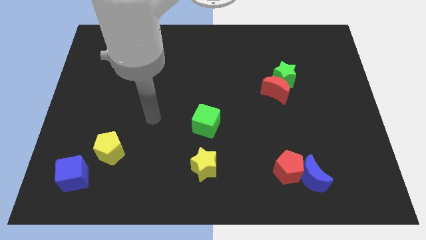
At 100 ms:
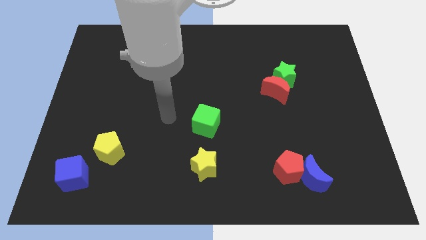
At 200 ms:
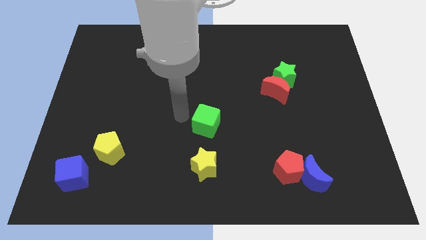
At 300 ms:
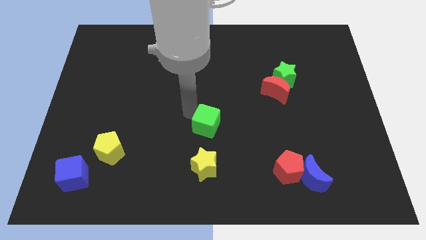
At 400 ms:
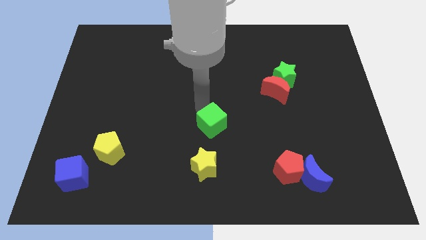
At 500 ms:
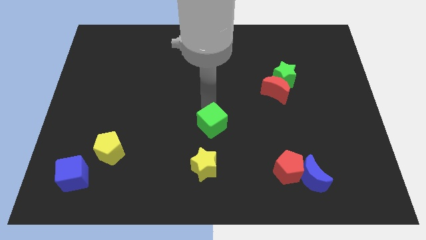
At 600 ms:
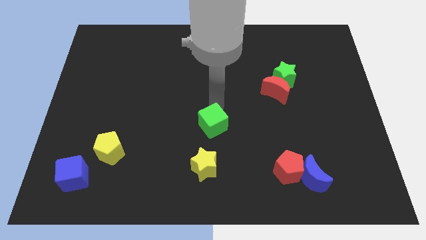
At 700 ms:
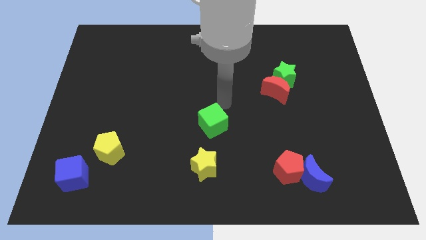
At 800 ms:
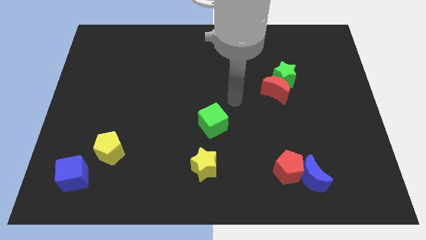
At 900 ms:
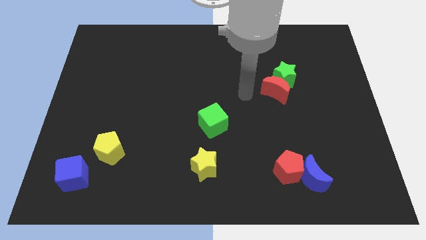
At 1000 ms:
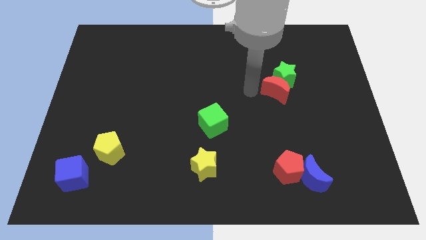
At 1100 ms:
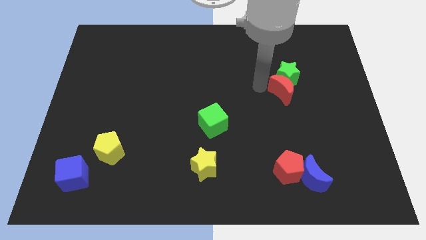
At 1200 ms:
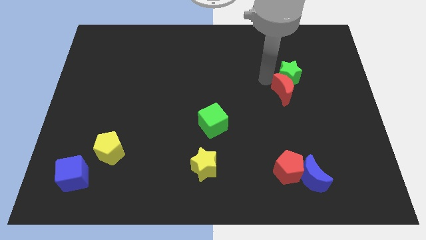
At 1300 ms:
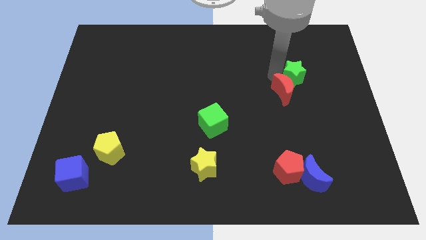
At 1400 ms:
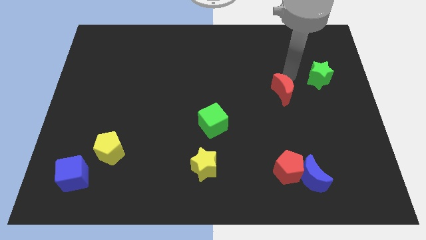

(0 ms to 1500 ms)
separate the red moon from the green star

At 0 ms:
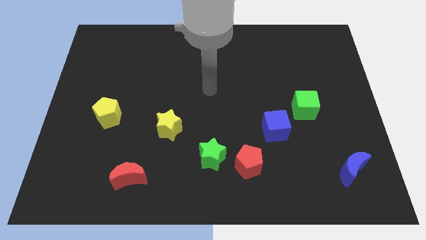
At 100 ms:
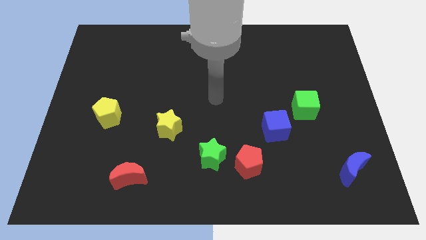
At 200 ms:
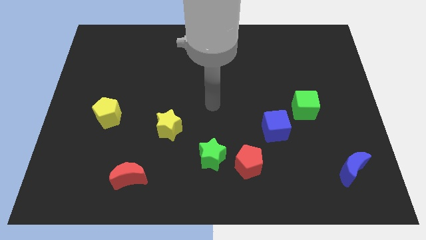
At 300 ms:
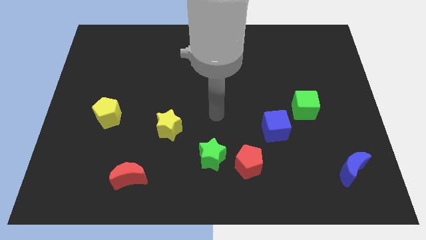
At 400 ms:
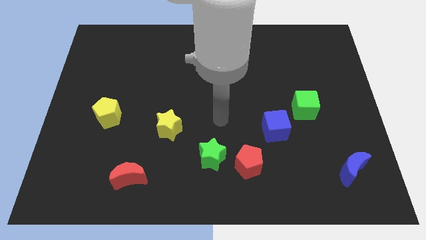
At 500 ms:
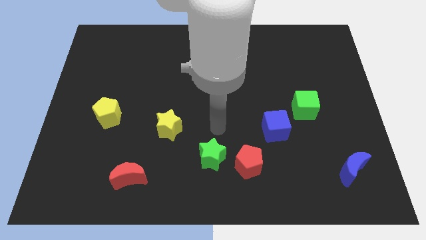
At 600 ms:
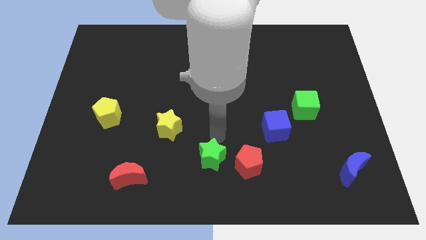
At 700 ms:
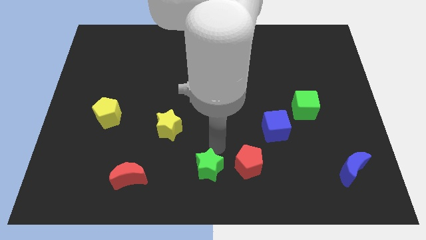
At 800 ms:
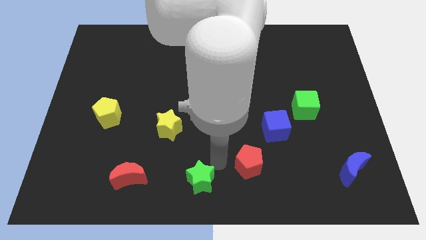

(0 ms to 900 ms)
move the red pentagon away from the green star

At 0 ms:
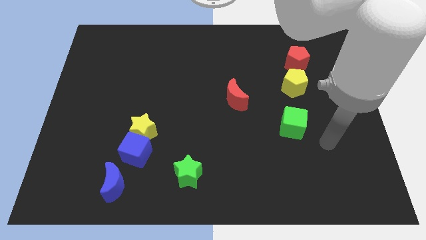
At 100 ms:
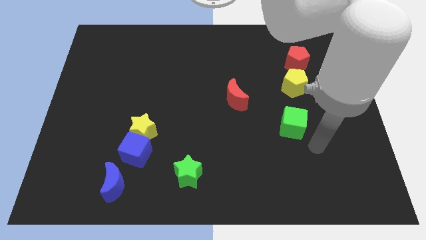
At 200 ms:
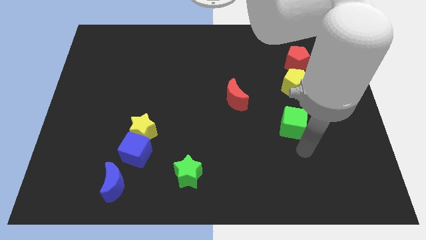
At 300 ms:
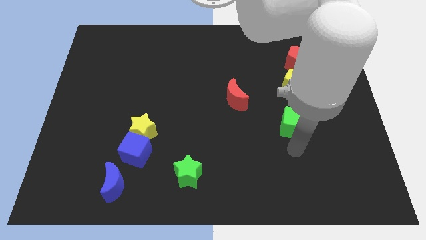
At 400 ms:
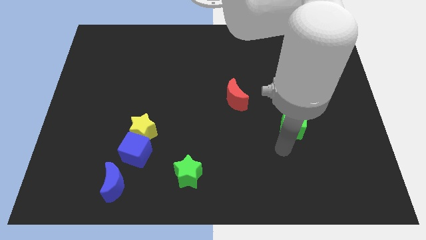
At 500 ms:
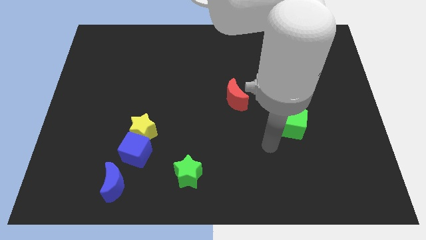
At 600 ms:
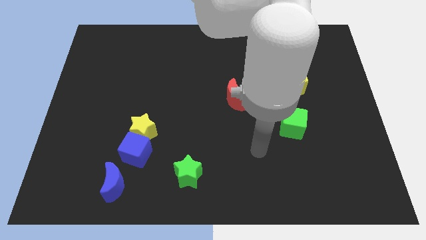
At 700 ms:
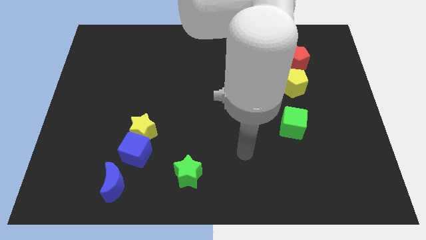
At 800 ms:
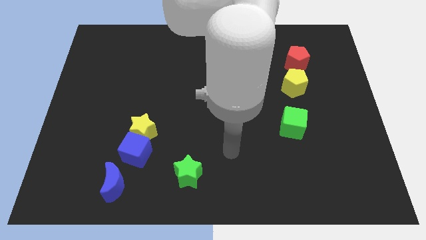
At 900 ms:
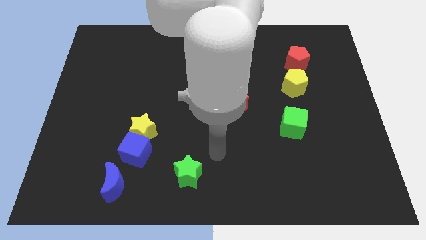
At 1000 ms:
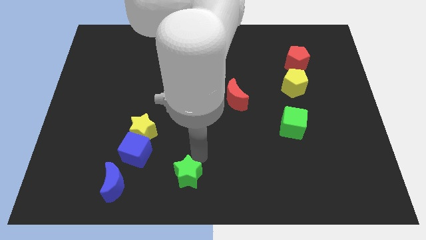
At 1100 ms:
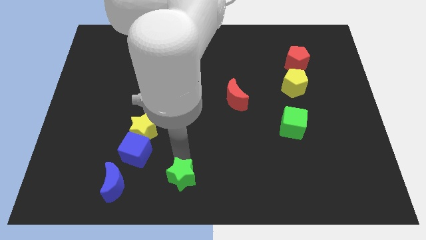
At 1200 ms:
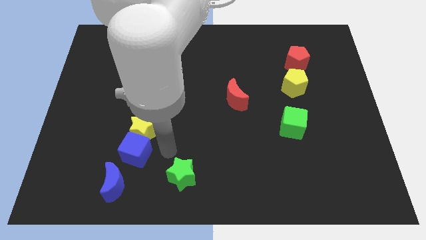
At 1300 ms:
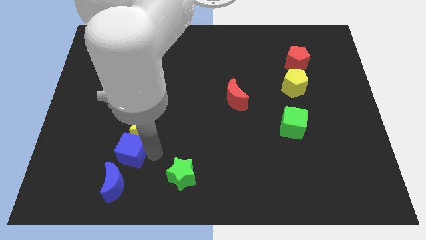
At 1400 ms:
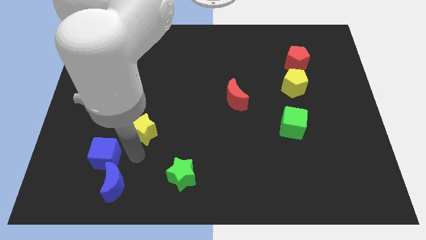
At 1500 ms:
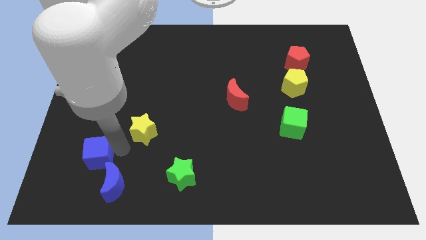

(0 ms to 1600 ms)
move the yellow star away from the blue cube

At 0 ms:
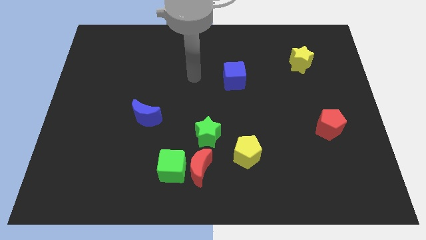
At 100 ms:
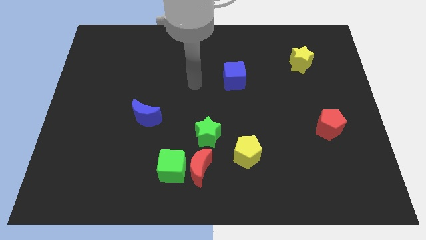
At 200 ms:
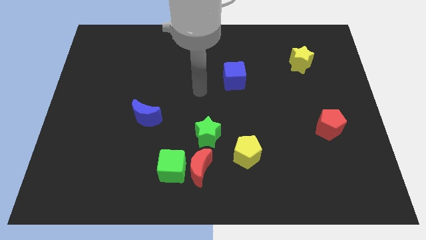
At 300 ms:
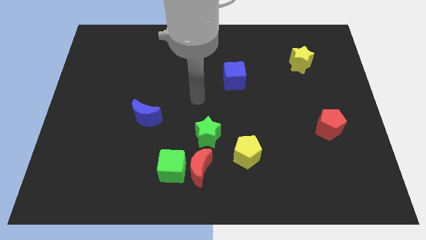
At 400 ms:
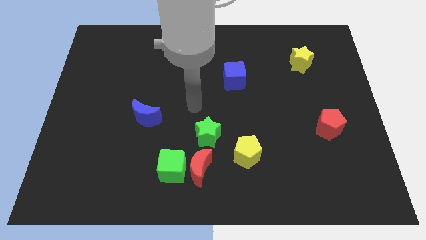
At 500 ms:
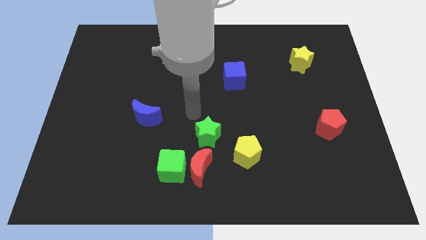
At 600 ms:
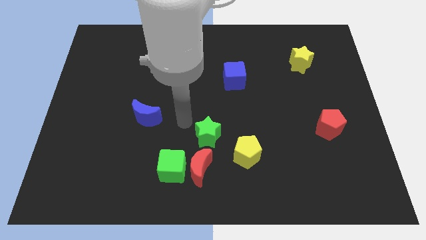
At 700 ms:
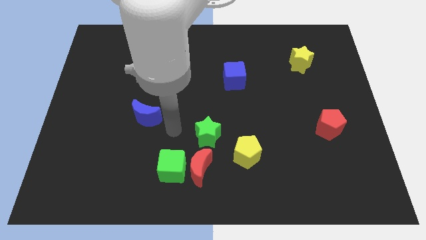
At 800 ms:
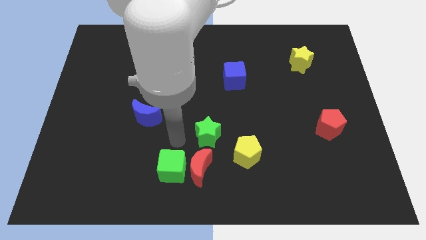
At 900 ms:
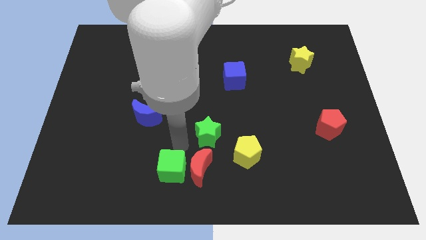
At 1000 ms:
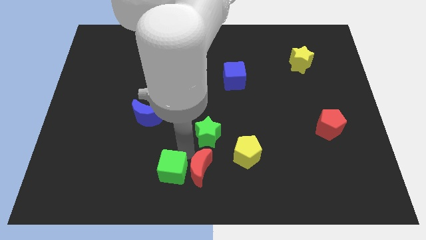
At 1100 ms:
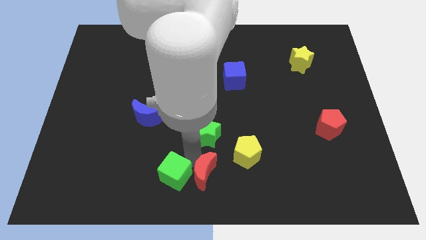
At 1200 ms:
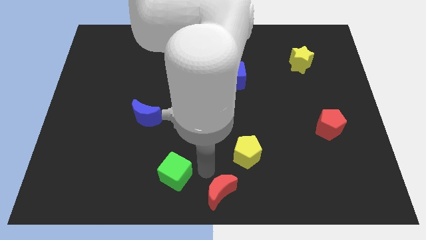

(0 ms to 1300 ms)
separate the green cube from the red moon

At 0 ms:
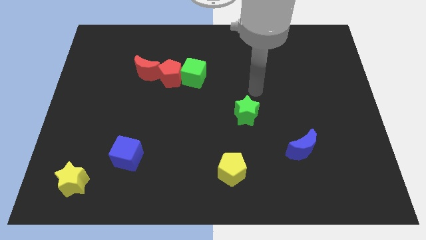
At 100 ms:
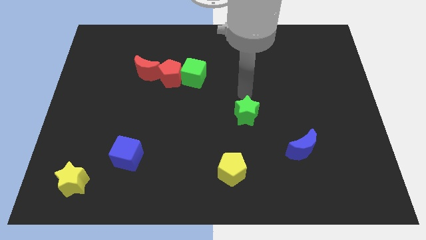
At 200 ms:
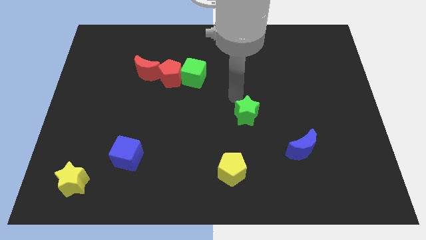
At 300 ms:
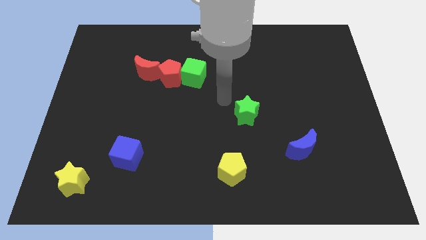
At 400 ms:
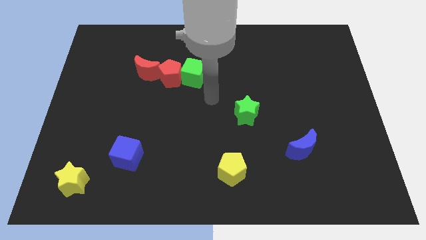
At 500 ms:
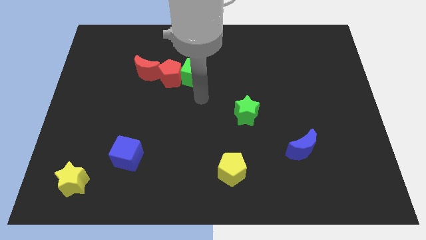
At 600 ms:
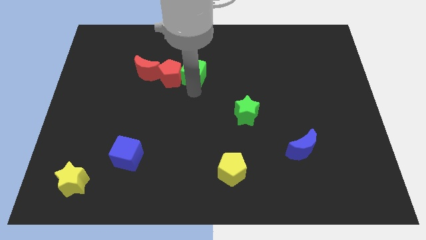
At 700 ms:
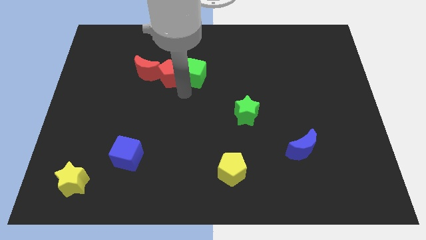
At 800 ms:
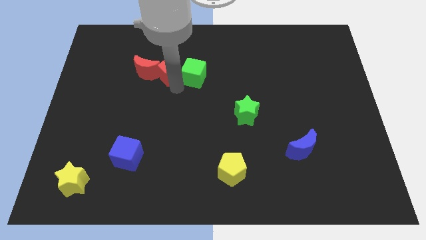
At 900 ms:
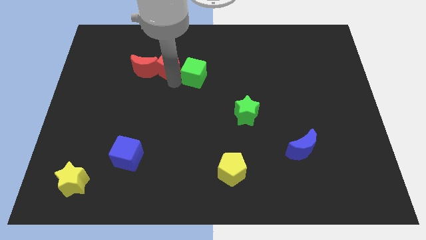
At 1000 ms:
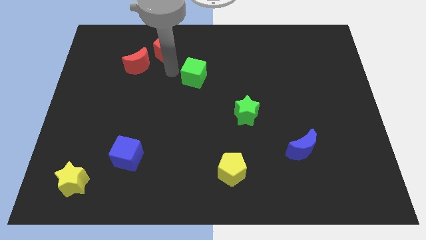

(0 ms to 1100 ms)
move the green cube away from the red pentagon

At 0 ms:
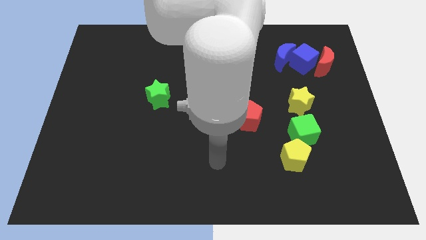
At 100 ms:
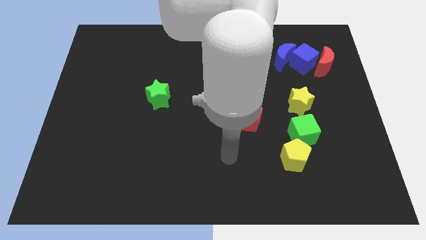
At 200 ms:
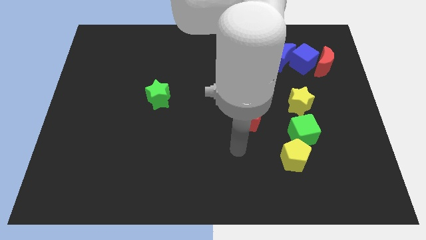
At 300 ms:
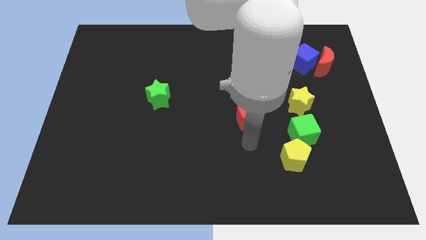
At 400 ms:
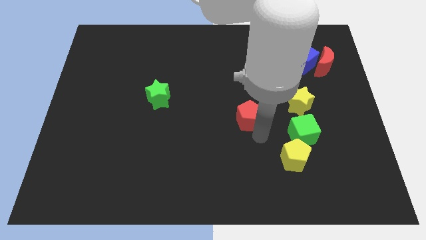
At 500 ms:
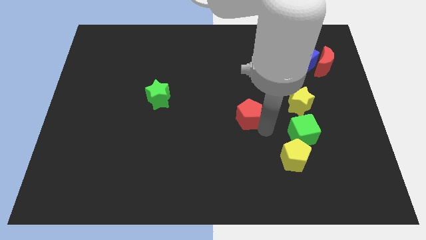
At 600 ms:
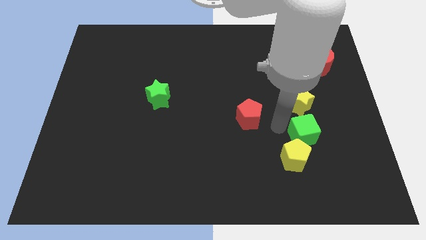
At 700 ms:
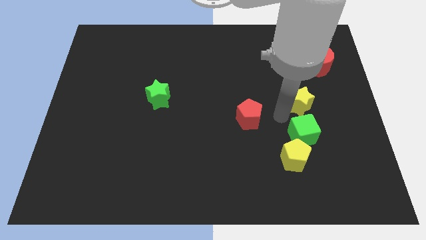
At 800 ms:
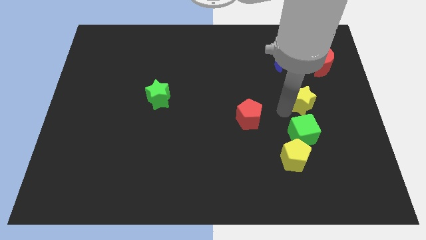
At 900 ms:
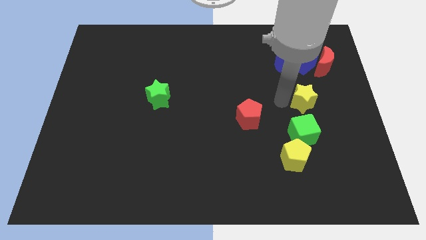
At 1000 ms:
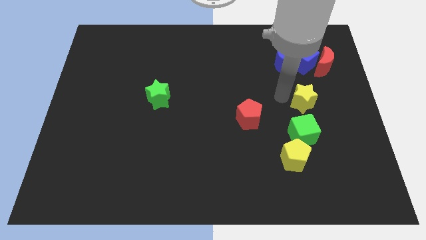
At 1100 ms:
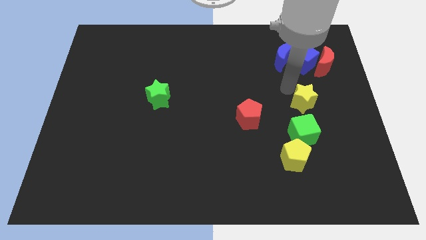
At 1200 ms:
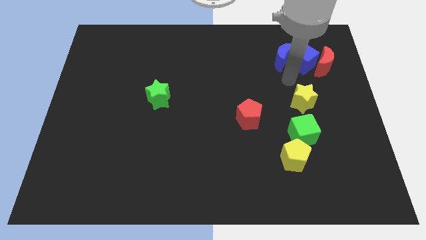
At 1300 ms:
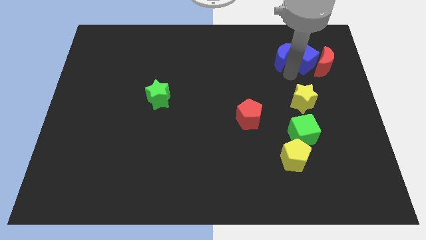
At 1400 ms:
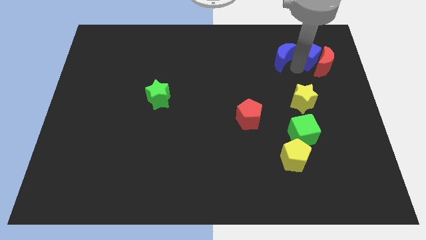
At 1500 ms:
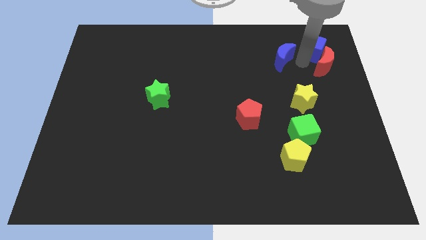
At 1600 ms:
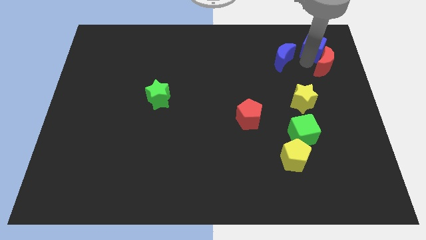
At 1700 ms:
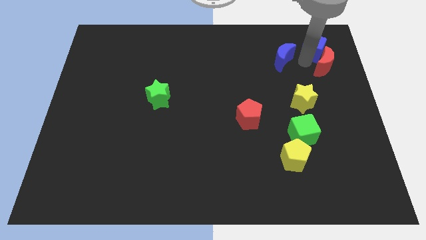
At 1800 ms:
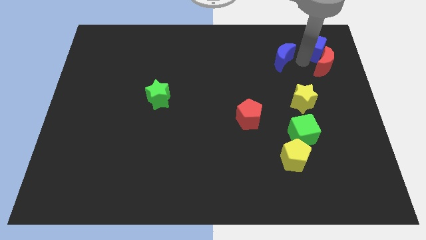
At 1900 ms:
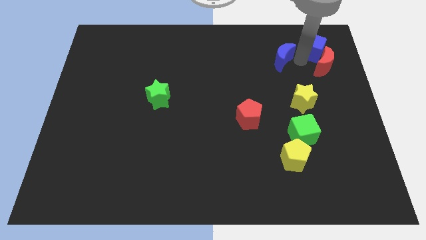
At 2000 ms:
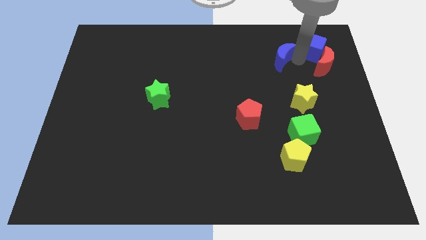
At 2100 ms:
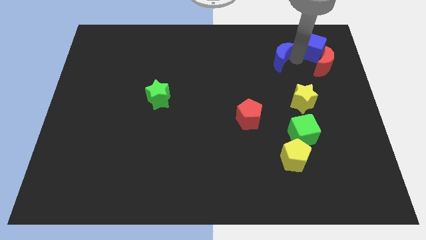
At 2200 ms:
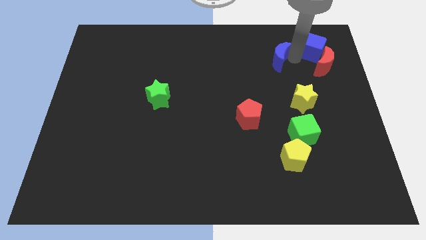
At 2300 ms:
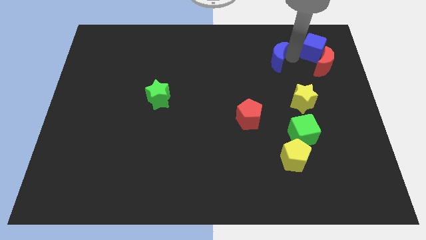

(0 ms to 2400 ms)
move the blue moon away from the blue cube

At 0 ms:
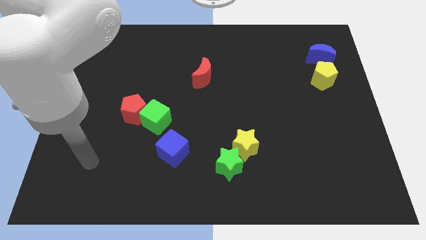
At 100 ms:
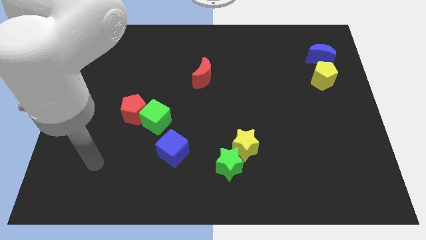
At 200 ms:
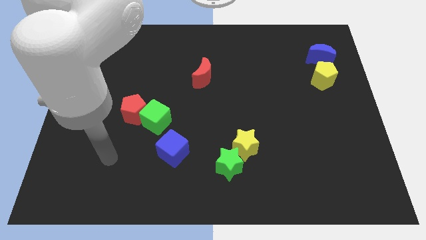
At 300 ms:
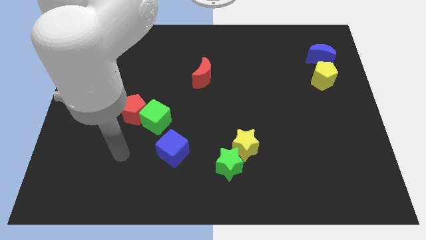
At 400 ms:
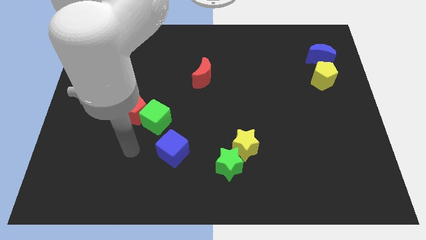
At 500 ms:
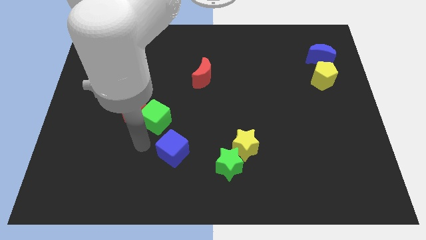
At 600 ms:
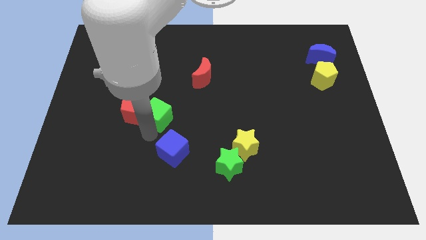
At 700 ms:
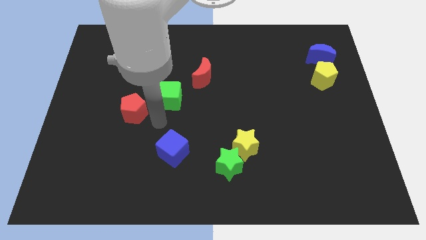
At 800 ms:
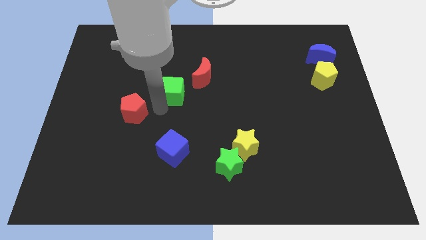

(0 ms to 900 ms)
pull the red pentagon apart from the green cube
